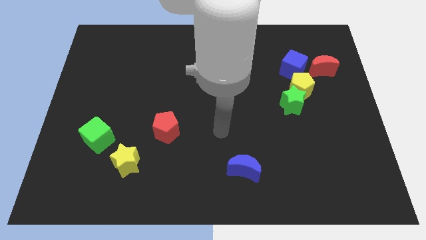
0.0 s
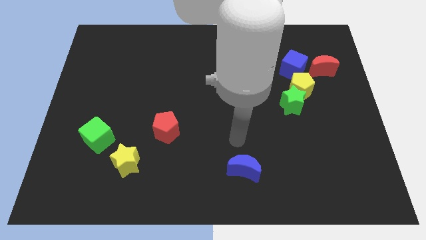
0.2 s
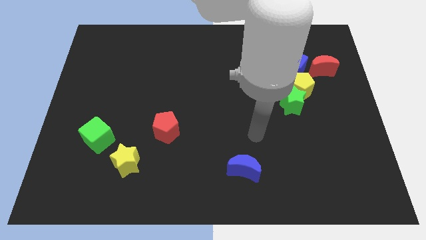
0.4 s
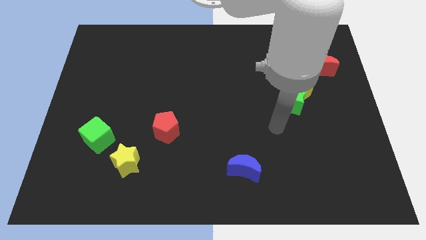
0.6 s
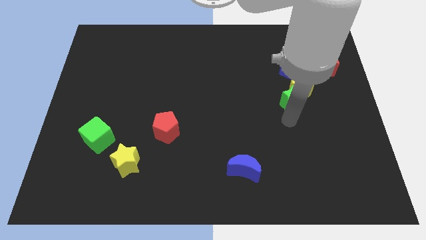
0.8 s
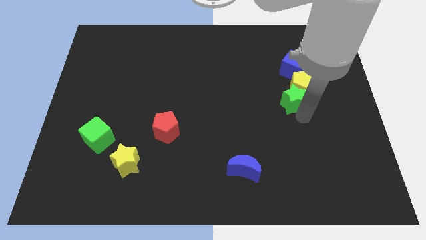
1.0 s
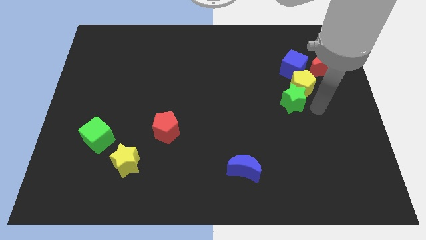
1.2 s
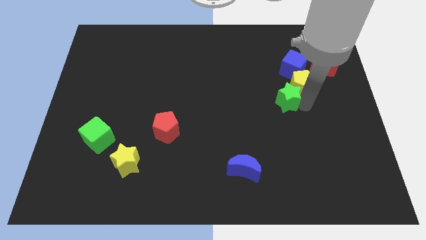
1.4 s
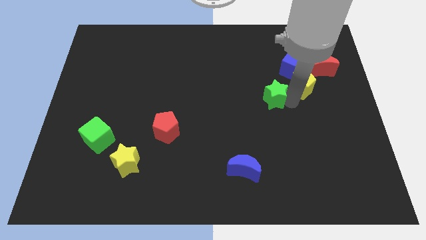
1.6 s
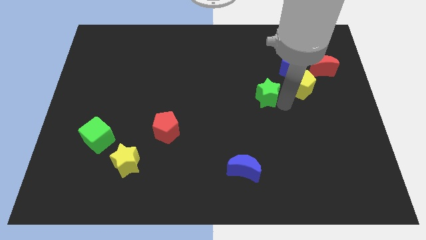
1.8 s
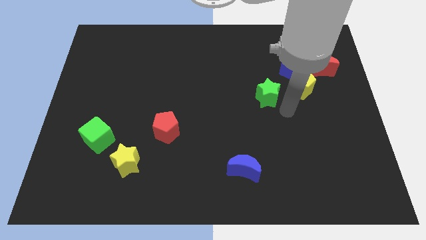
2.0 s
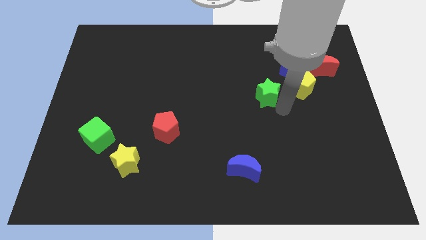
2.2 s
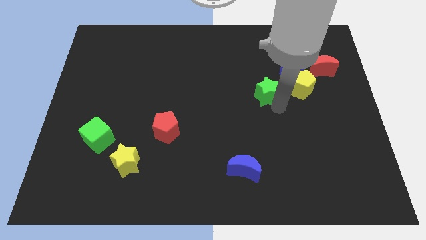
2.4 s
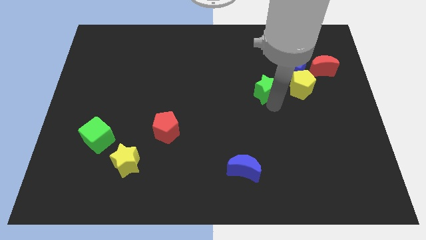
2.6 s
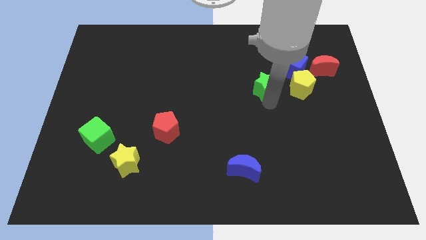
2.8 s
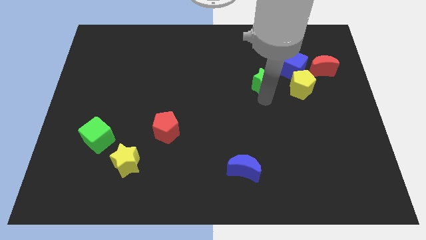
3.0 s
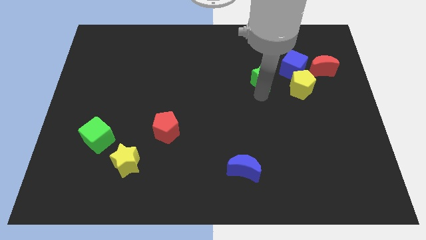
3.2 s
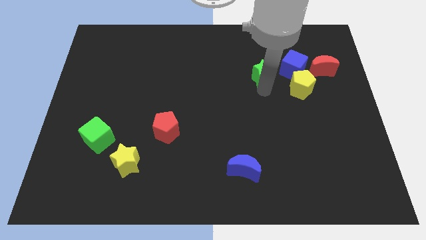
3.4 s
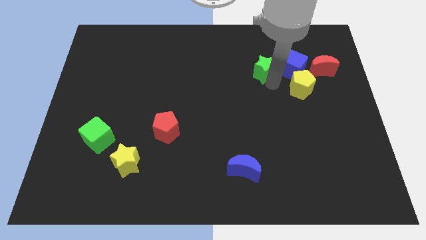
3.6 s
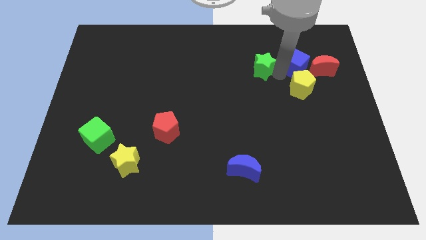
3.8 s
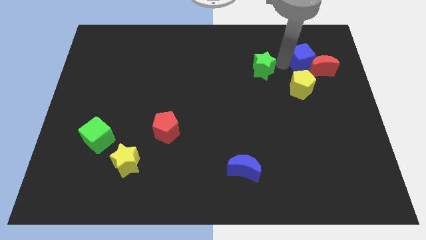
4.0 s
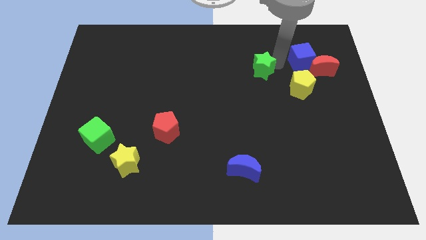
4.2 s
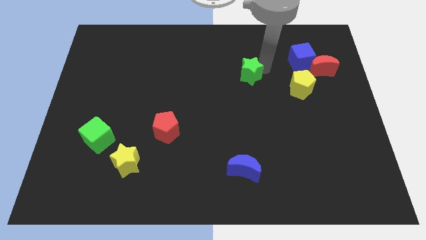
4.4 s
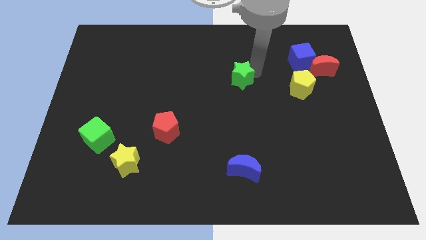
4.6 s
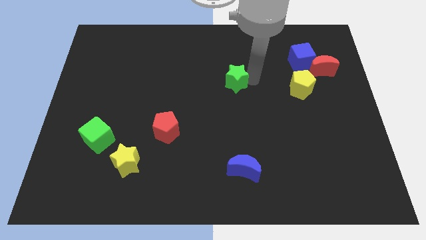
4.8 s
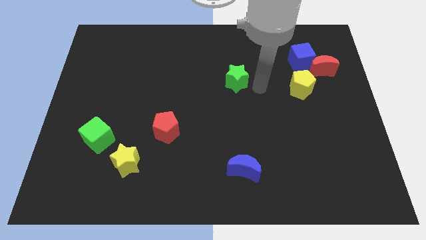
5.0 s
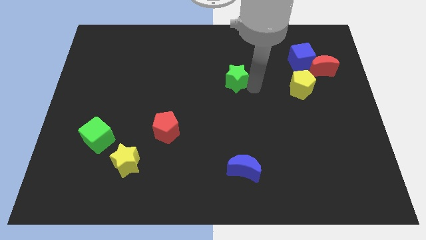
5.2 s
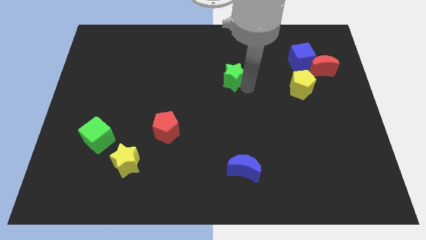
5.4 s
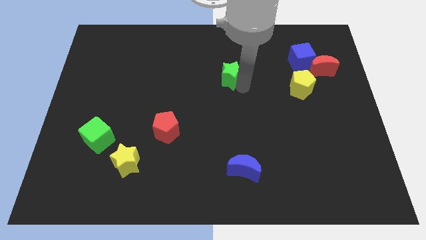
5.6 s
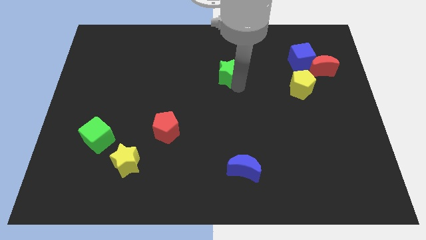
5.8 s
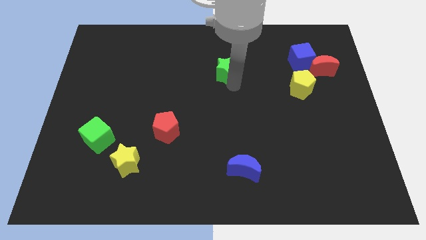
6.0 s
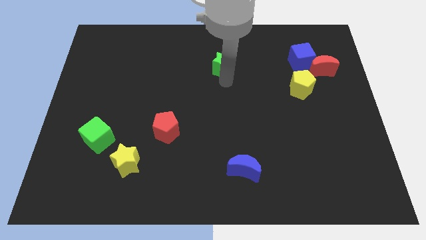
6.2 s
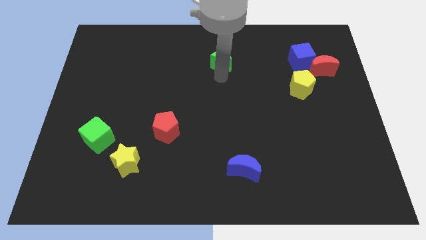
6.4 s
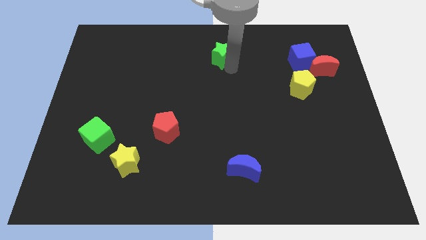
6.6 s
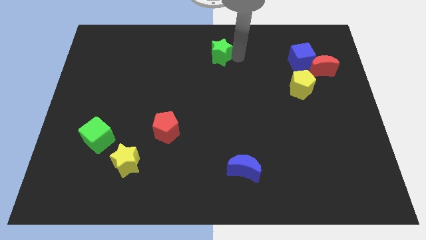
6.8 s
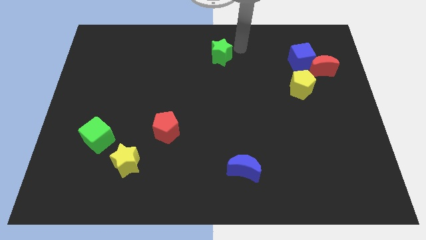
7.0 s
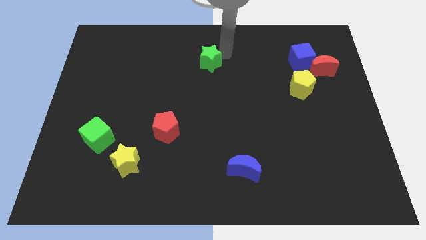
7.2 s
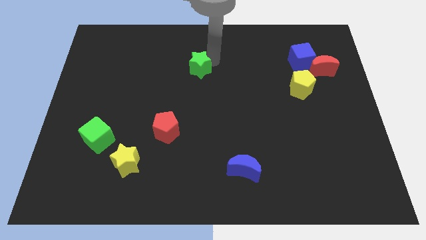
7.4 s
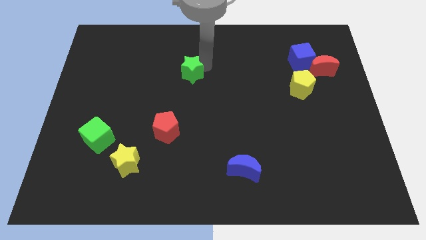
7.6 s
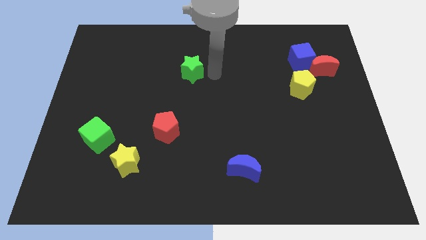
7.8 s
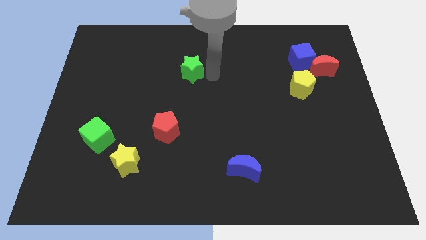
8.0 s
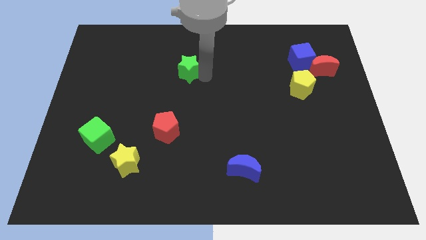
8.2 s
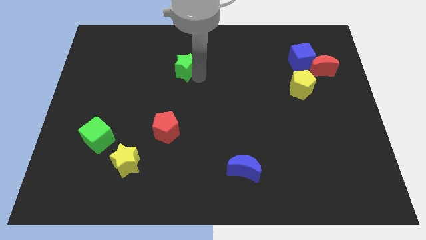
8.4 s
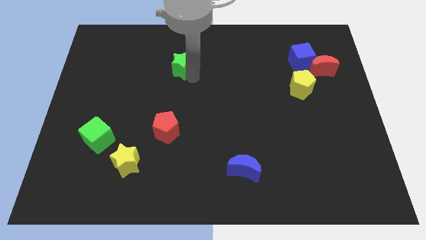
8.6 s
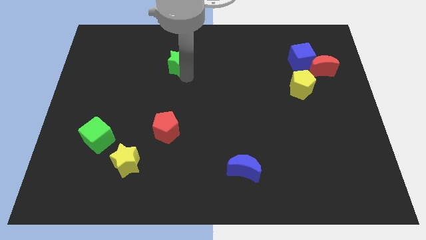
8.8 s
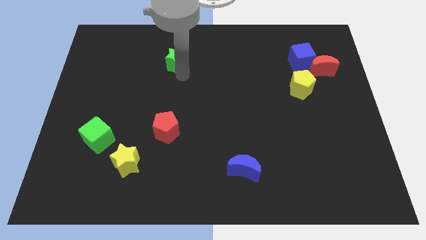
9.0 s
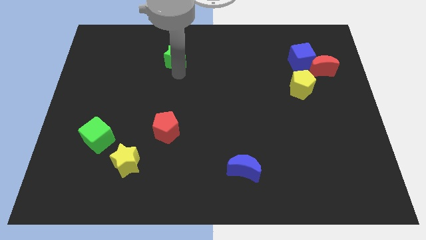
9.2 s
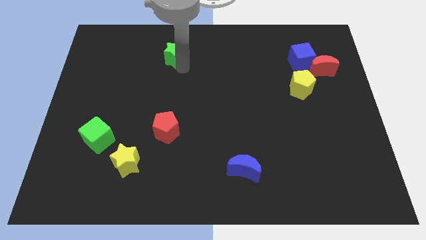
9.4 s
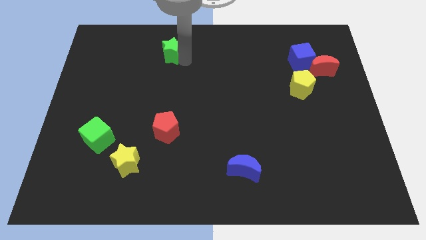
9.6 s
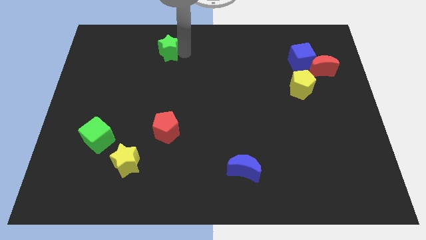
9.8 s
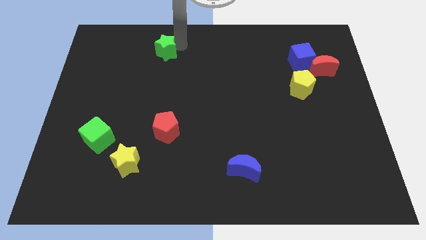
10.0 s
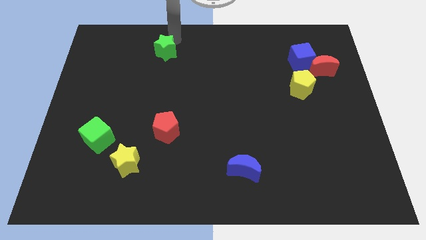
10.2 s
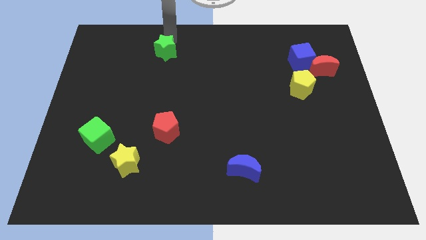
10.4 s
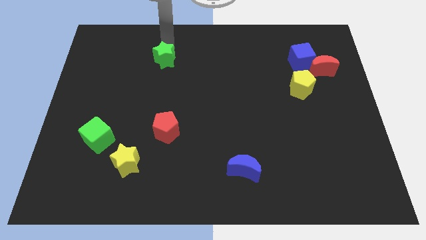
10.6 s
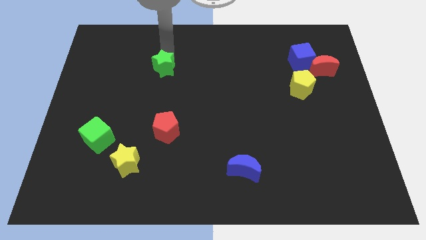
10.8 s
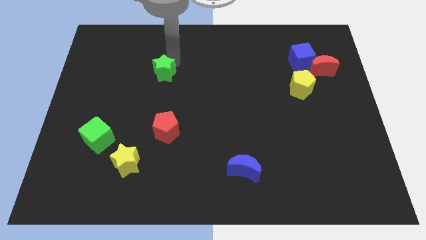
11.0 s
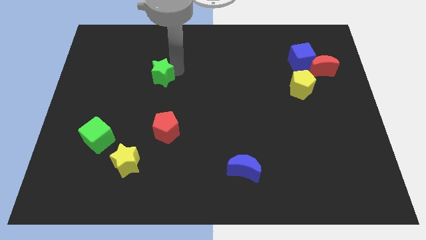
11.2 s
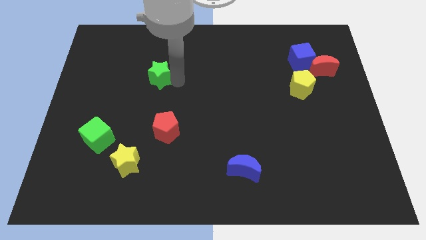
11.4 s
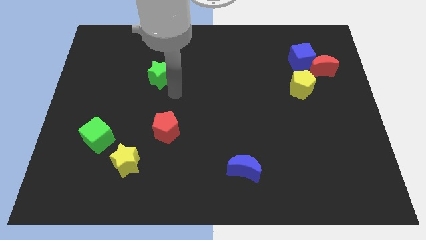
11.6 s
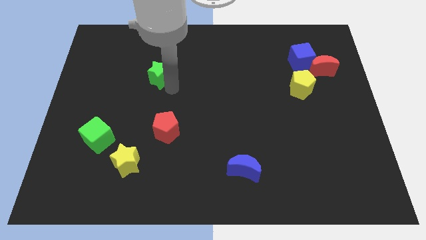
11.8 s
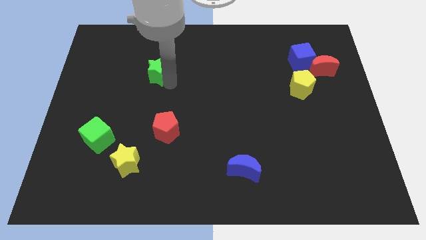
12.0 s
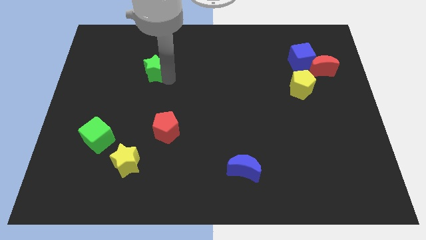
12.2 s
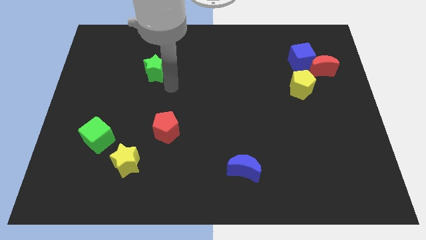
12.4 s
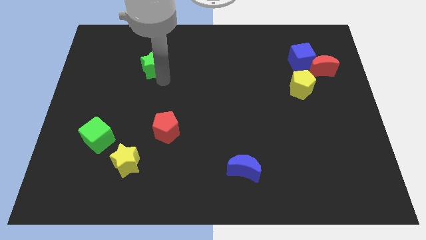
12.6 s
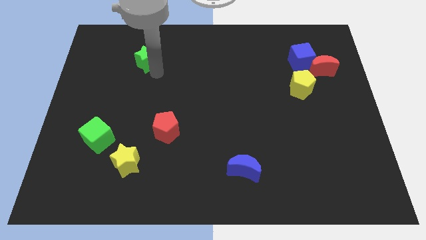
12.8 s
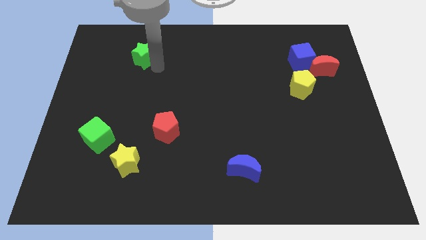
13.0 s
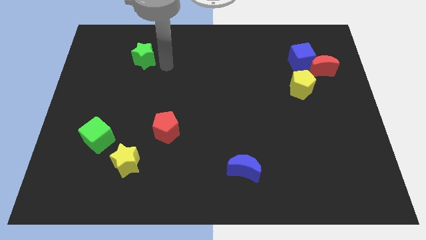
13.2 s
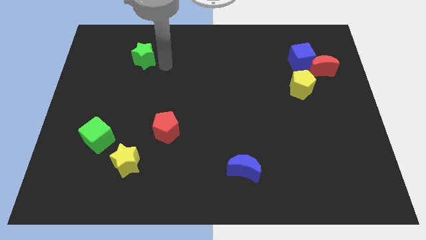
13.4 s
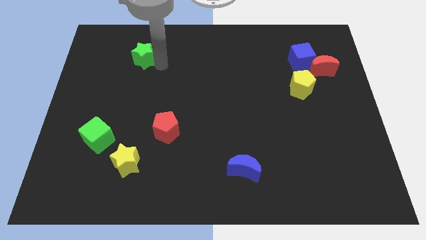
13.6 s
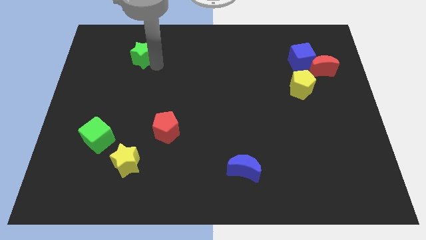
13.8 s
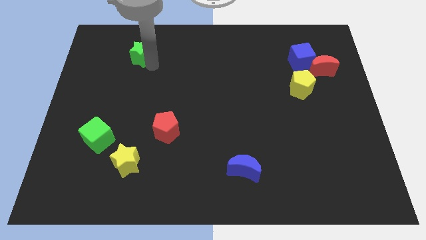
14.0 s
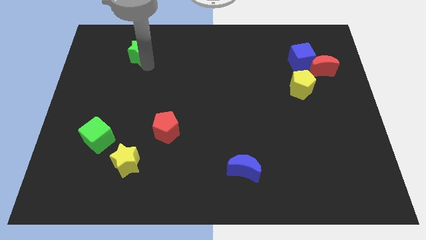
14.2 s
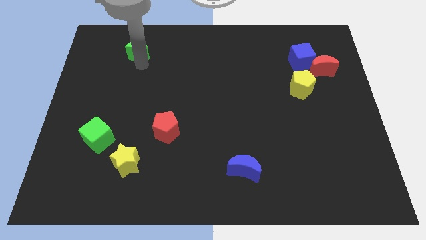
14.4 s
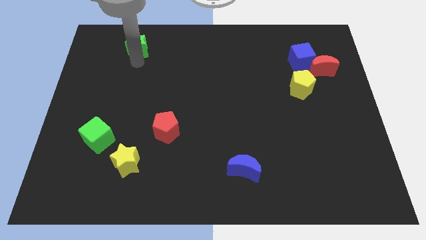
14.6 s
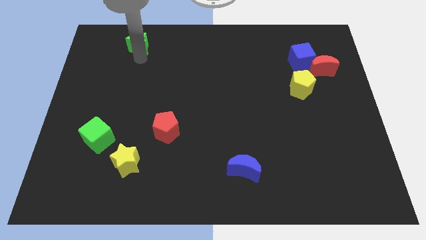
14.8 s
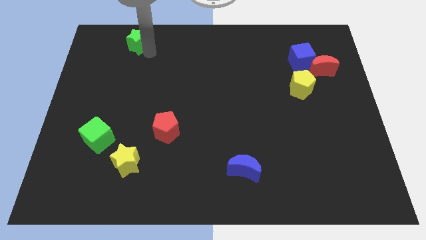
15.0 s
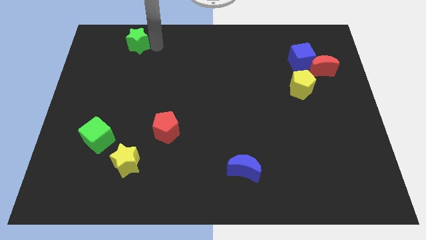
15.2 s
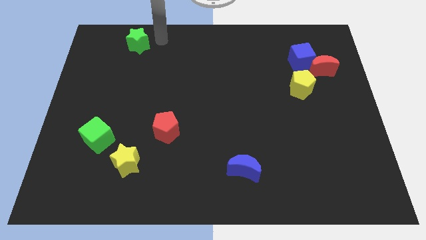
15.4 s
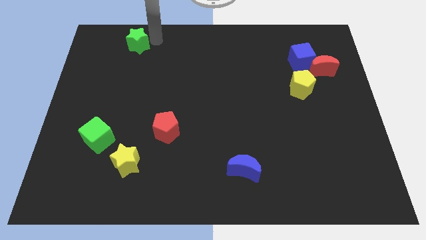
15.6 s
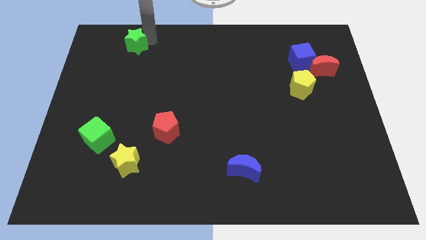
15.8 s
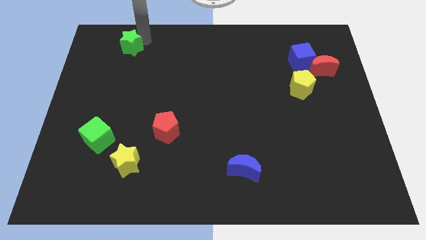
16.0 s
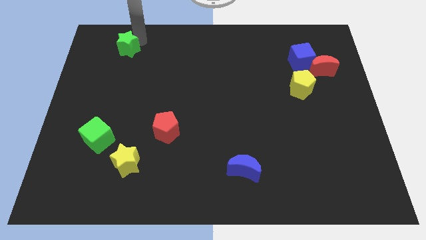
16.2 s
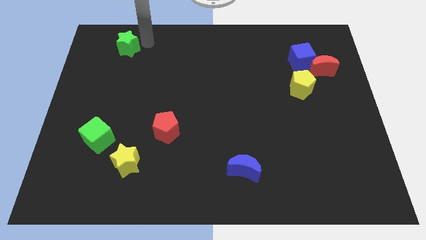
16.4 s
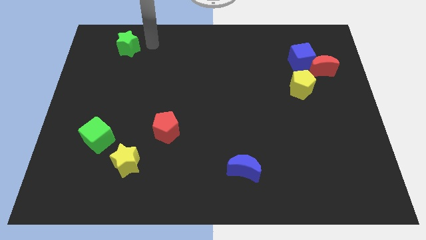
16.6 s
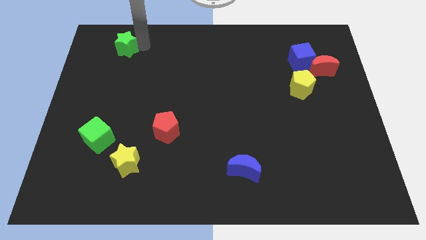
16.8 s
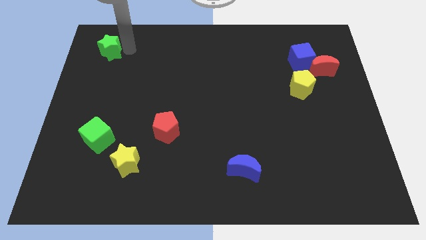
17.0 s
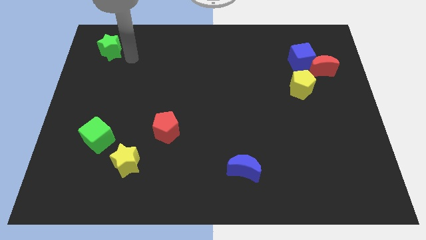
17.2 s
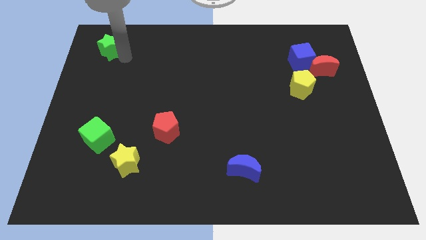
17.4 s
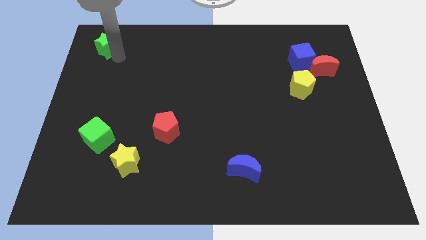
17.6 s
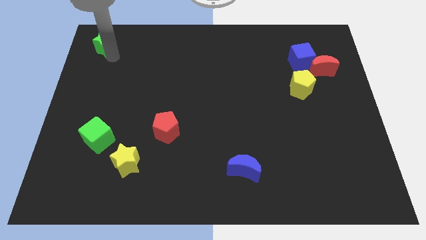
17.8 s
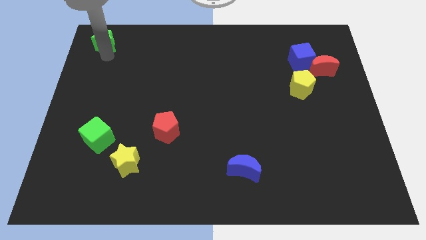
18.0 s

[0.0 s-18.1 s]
move the green star to the top left
